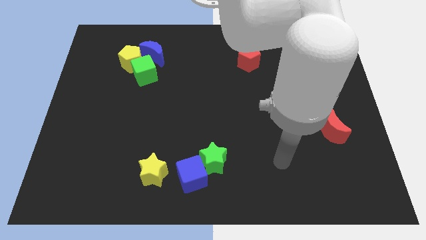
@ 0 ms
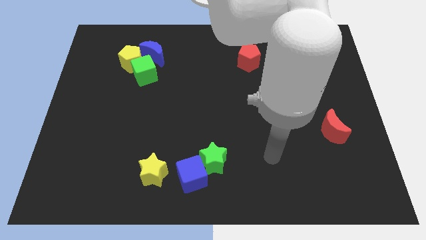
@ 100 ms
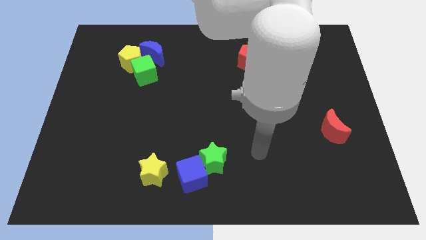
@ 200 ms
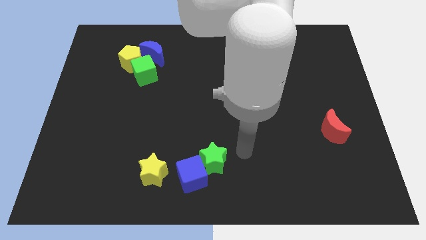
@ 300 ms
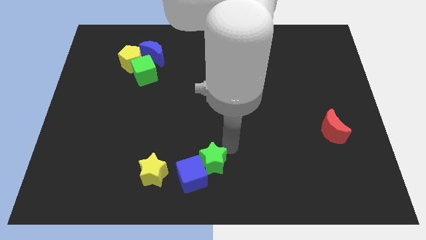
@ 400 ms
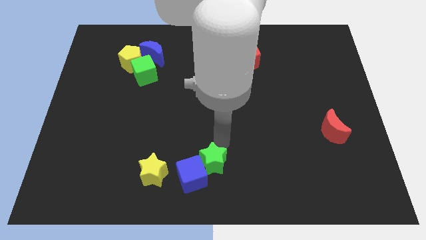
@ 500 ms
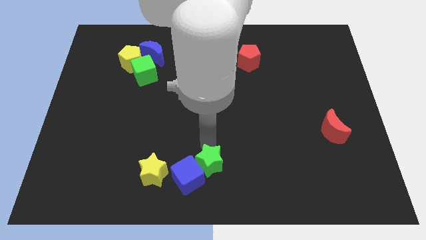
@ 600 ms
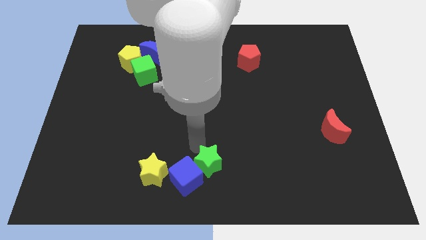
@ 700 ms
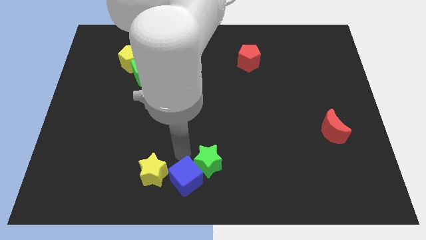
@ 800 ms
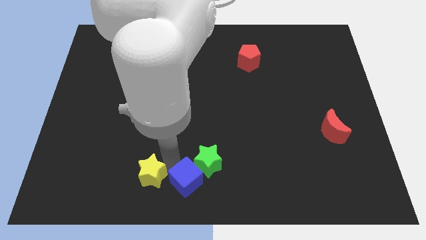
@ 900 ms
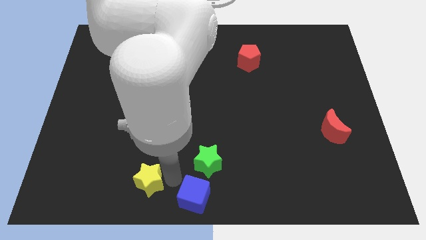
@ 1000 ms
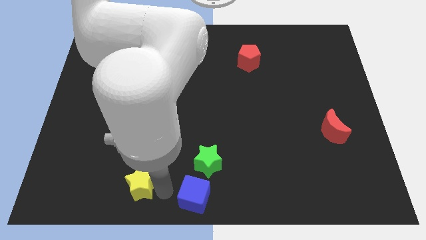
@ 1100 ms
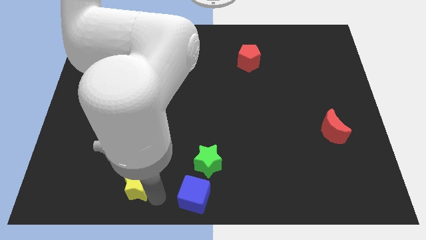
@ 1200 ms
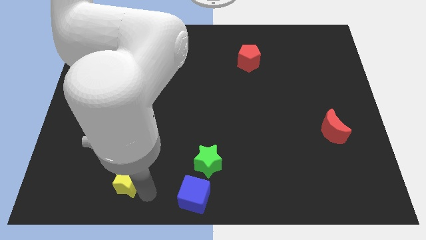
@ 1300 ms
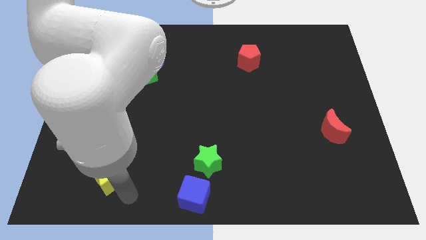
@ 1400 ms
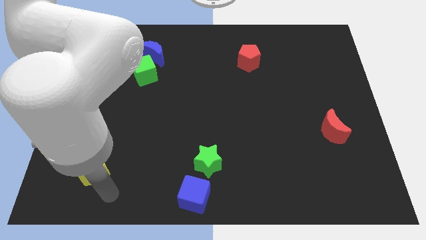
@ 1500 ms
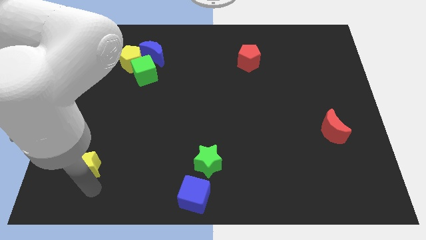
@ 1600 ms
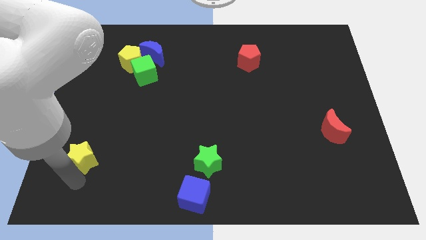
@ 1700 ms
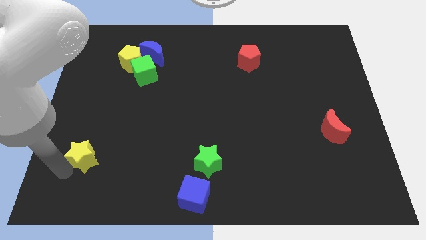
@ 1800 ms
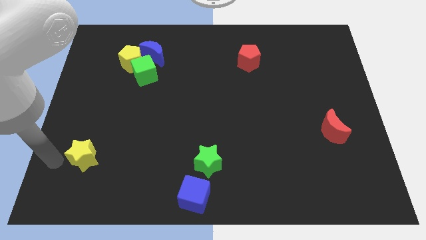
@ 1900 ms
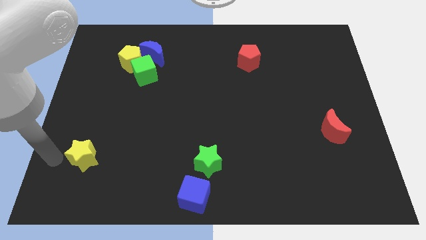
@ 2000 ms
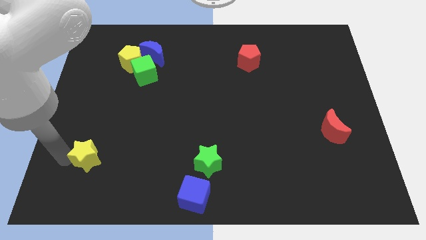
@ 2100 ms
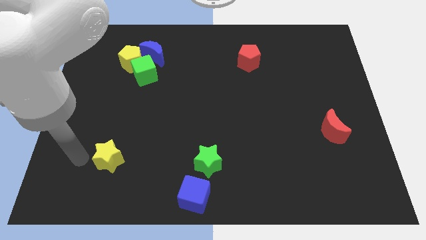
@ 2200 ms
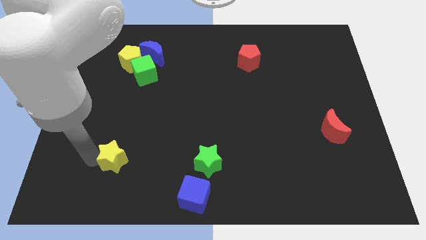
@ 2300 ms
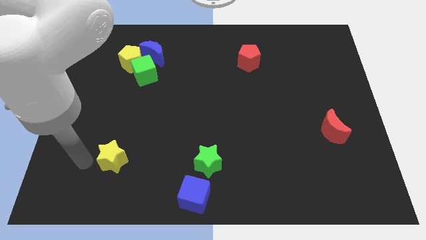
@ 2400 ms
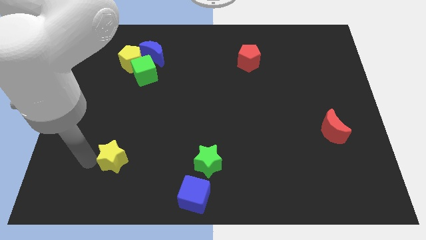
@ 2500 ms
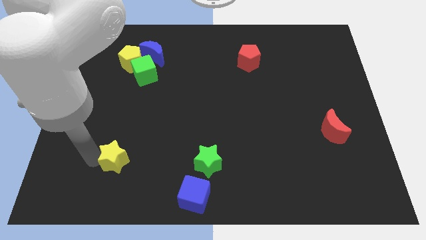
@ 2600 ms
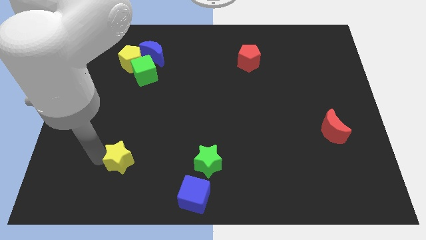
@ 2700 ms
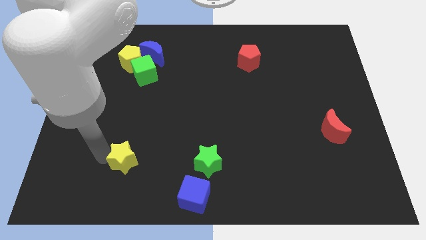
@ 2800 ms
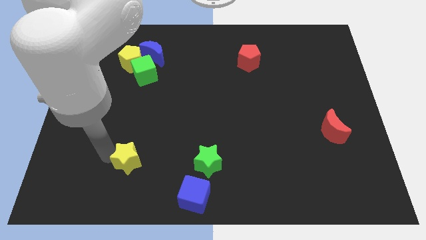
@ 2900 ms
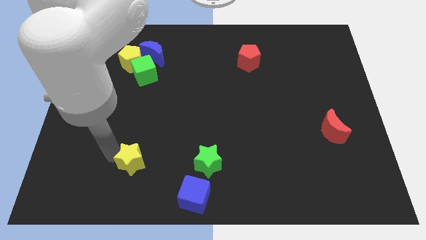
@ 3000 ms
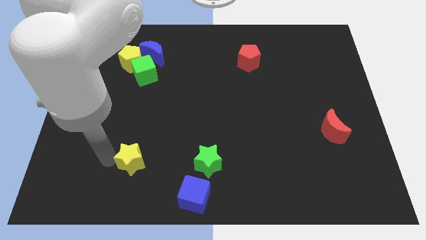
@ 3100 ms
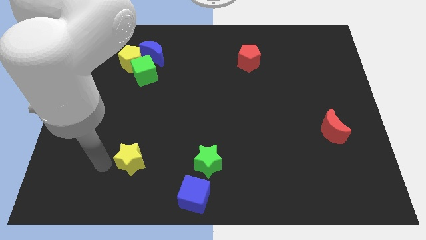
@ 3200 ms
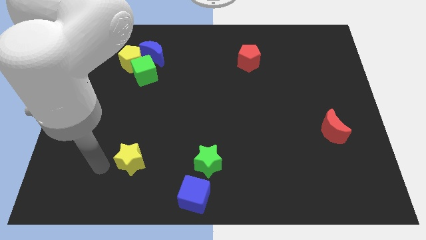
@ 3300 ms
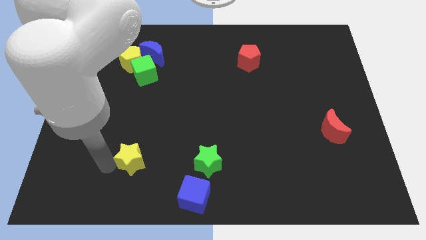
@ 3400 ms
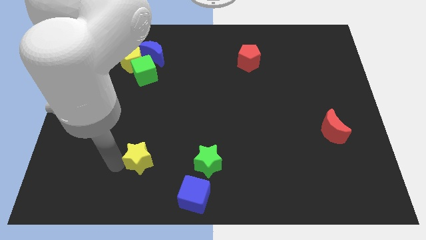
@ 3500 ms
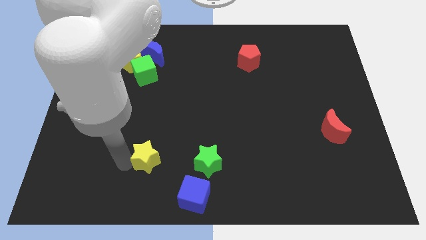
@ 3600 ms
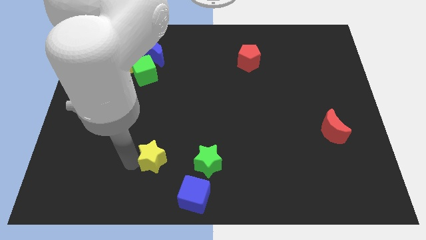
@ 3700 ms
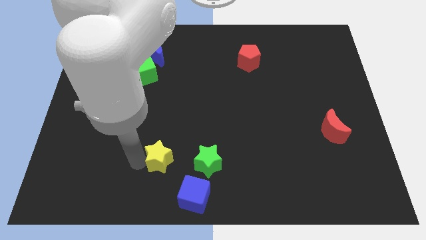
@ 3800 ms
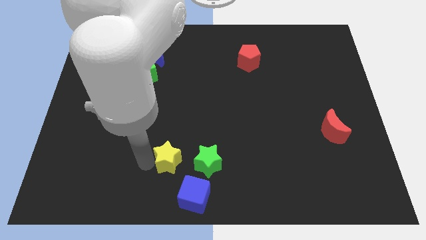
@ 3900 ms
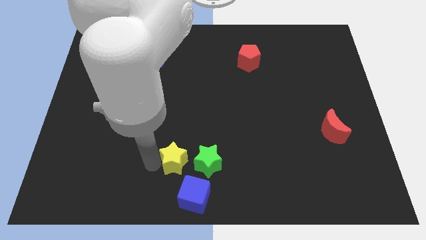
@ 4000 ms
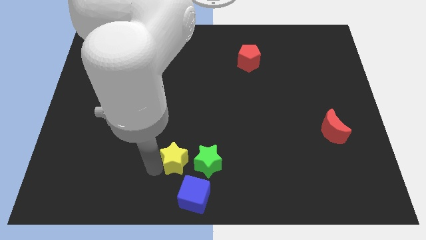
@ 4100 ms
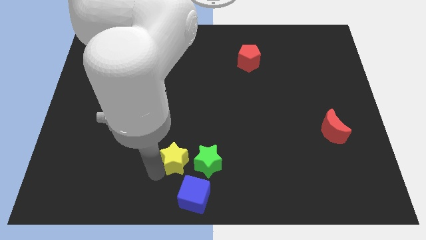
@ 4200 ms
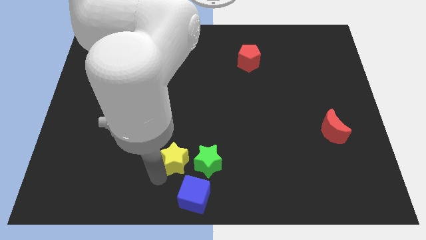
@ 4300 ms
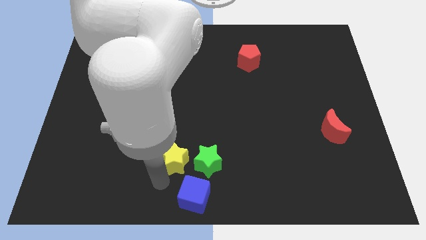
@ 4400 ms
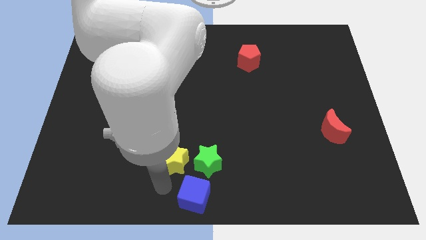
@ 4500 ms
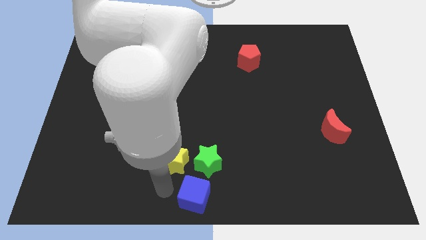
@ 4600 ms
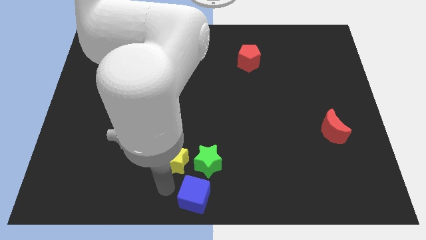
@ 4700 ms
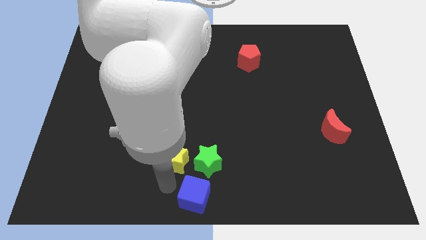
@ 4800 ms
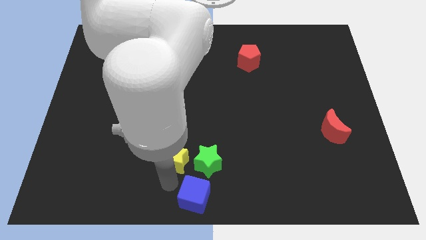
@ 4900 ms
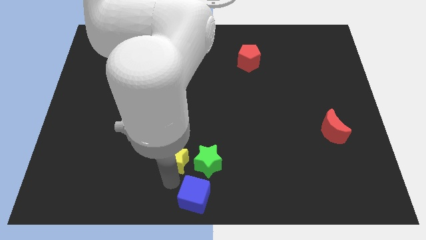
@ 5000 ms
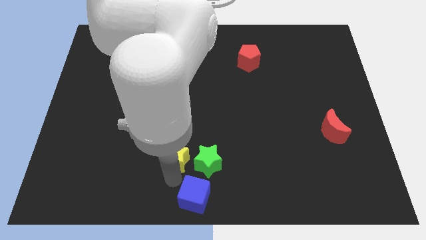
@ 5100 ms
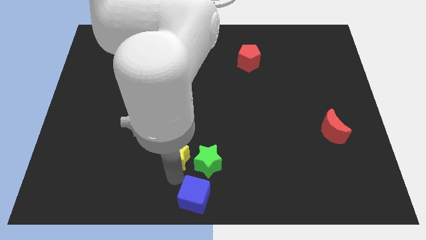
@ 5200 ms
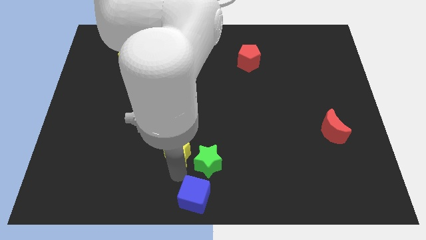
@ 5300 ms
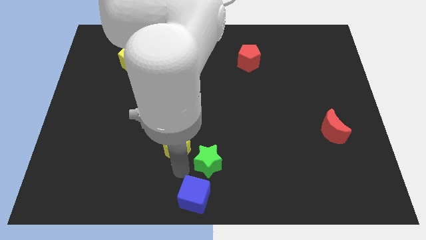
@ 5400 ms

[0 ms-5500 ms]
slightly move the yellow star up and right diagonally

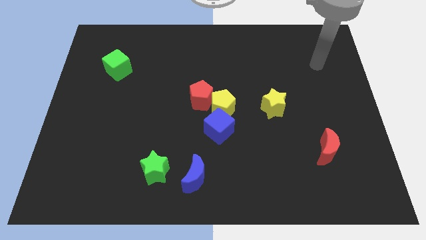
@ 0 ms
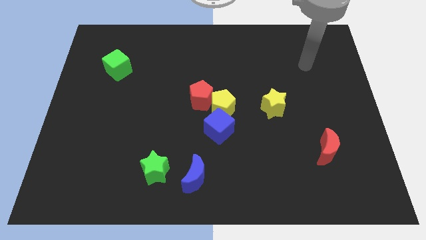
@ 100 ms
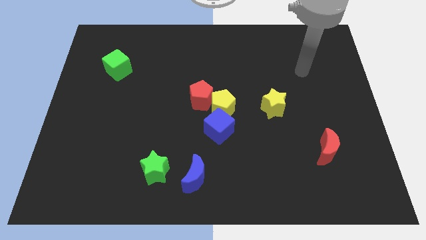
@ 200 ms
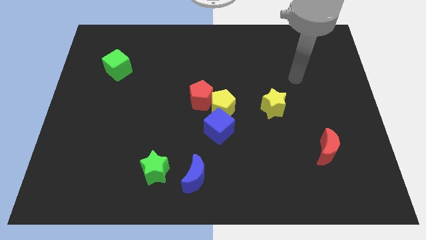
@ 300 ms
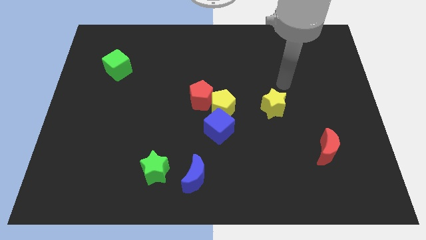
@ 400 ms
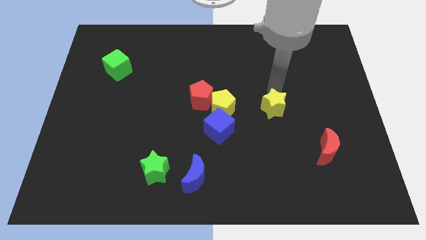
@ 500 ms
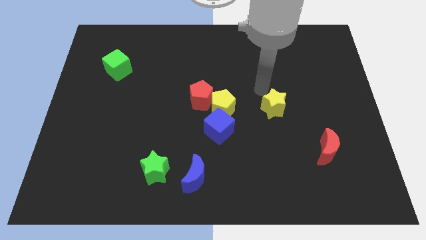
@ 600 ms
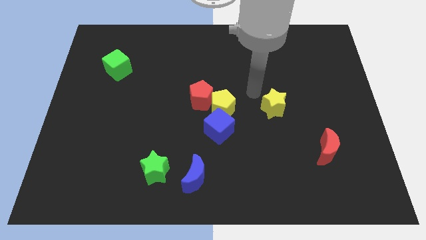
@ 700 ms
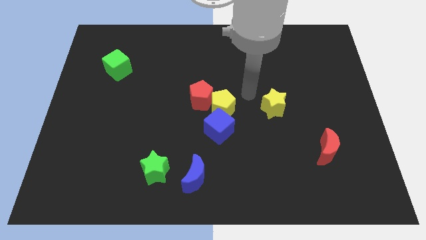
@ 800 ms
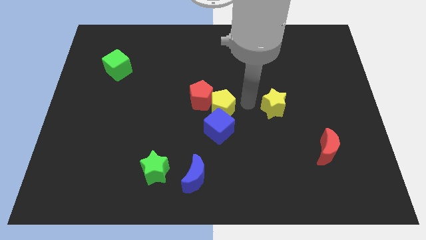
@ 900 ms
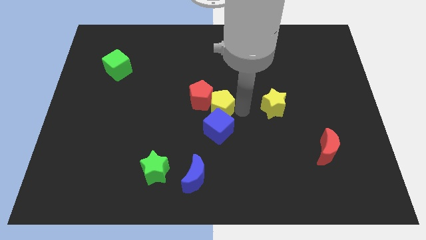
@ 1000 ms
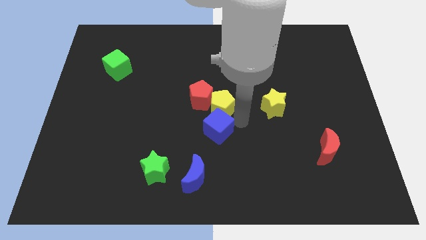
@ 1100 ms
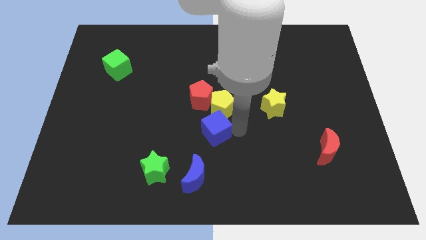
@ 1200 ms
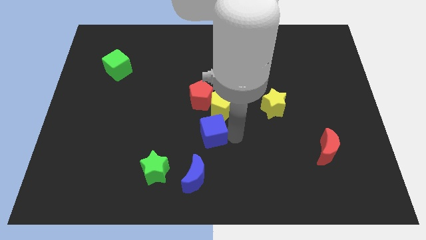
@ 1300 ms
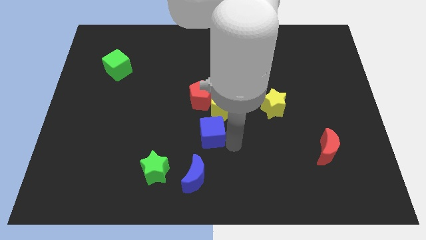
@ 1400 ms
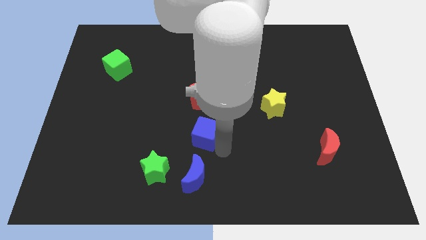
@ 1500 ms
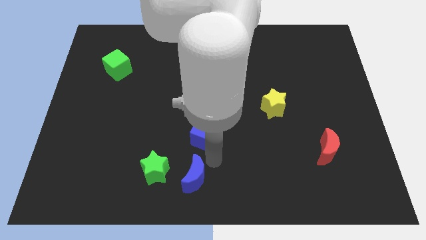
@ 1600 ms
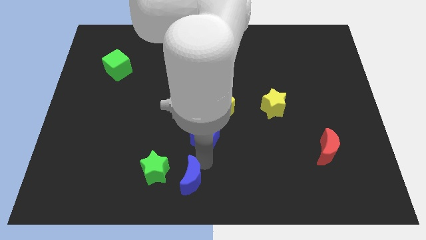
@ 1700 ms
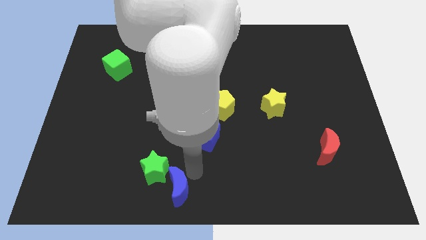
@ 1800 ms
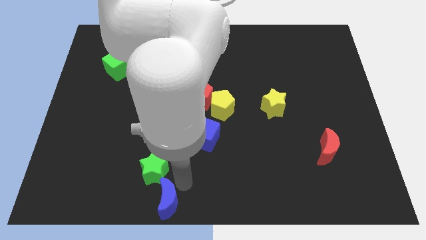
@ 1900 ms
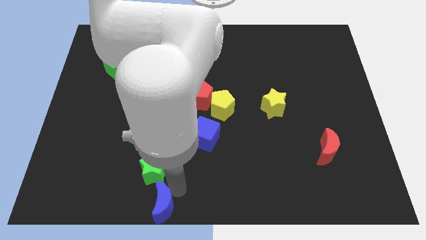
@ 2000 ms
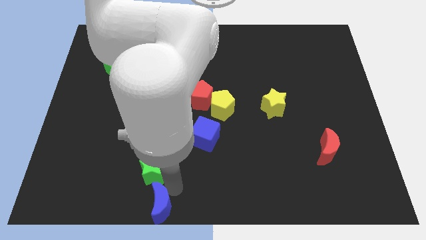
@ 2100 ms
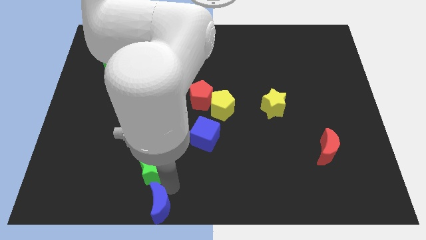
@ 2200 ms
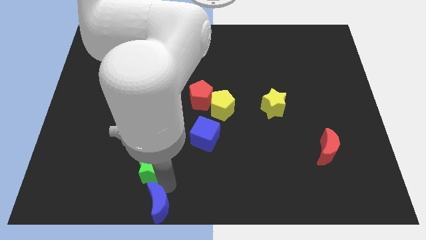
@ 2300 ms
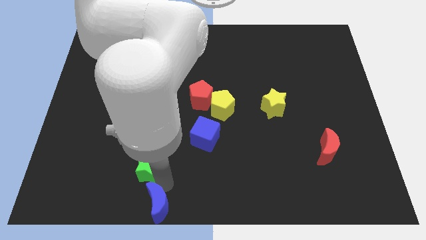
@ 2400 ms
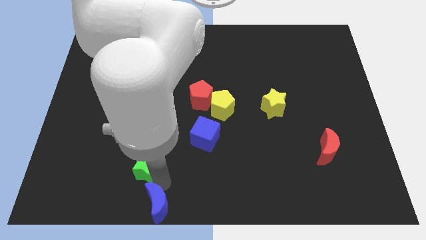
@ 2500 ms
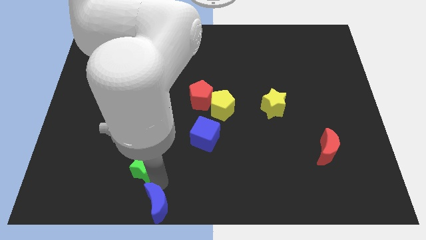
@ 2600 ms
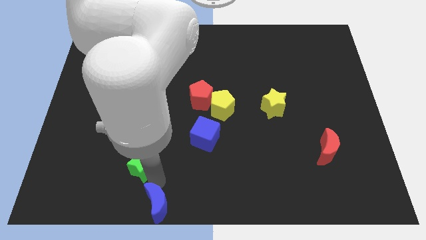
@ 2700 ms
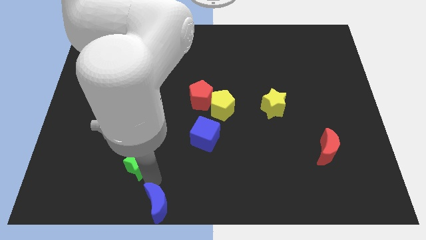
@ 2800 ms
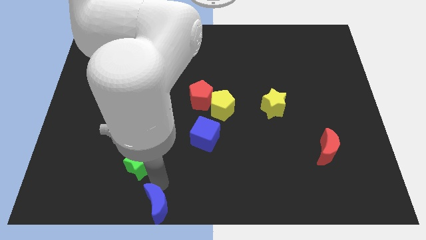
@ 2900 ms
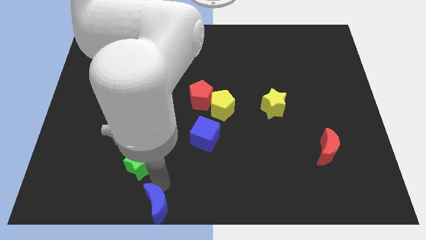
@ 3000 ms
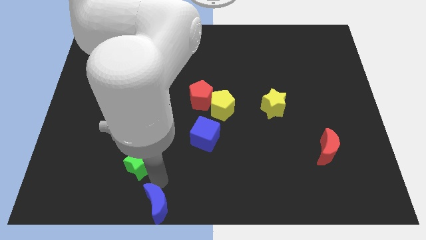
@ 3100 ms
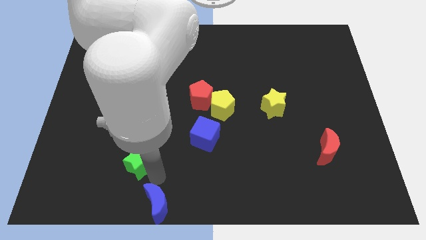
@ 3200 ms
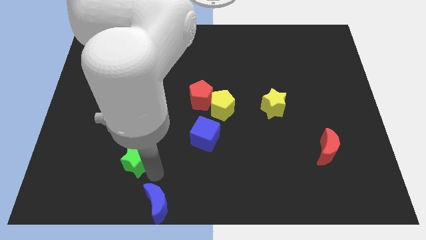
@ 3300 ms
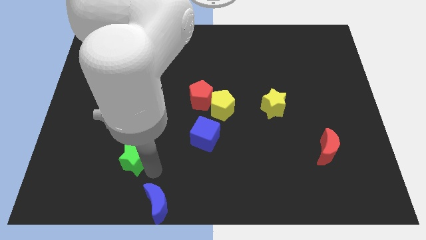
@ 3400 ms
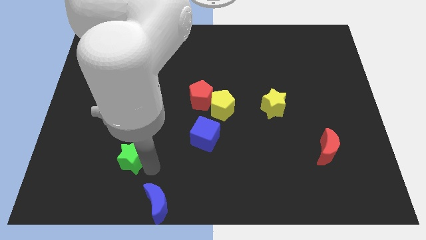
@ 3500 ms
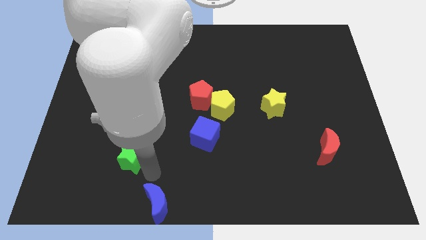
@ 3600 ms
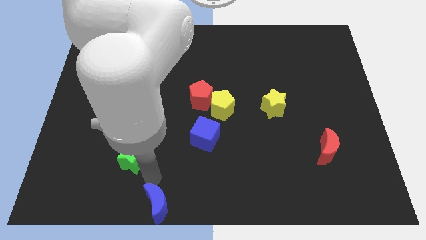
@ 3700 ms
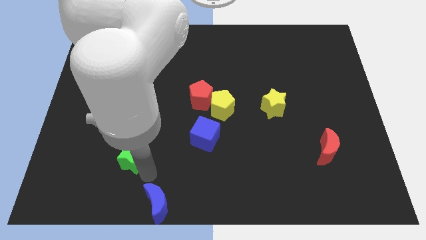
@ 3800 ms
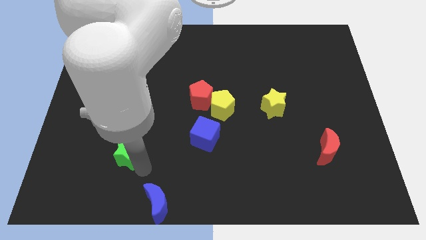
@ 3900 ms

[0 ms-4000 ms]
slide the green star a little bit up and left diagonally
